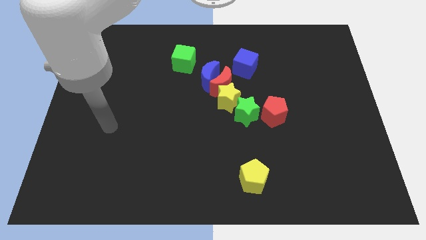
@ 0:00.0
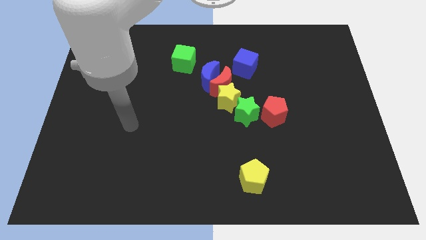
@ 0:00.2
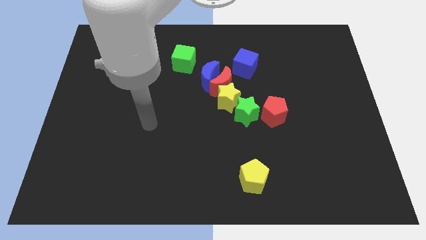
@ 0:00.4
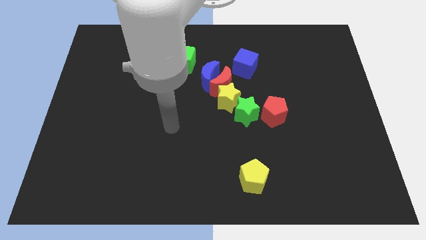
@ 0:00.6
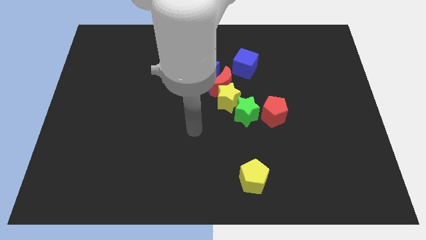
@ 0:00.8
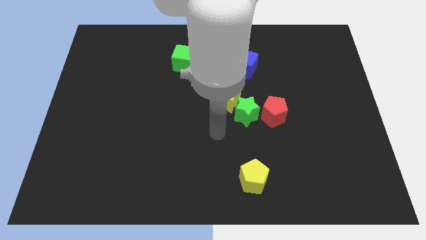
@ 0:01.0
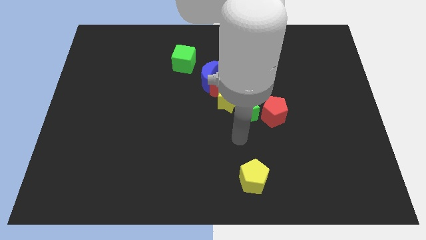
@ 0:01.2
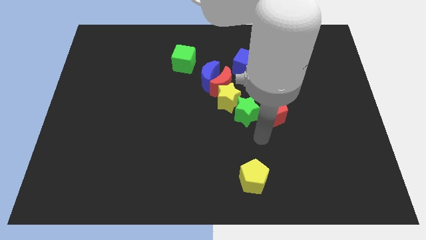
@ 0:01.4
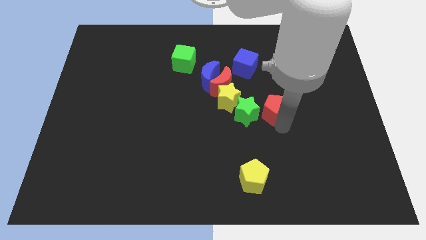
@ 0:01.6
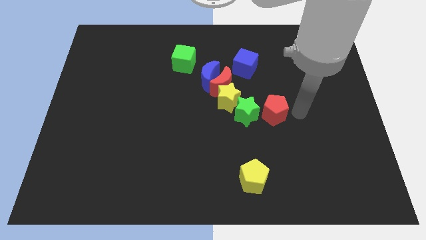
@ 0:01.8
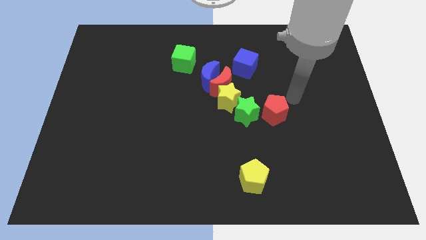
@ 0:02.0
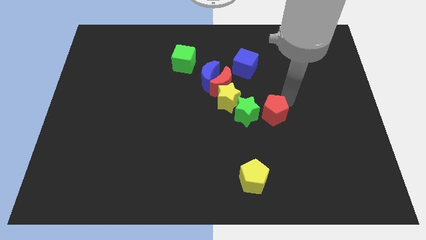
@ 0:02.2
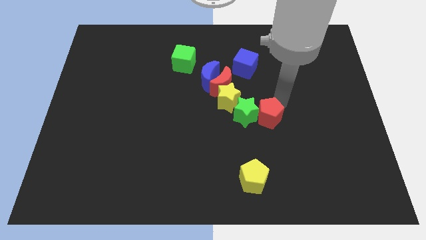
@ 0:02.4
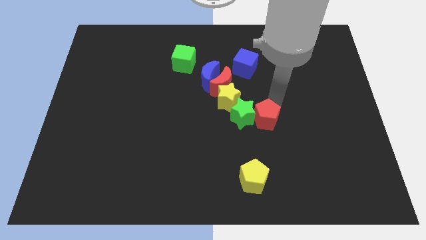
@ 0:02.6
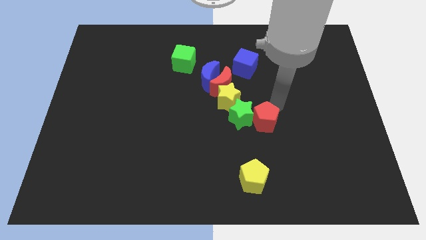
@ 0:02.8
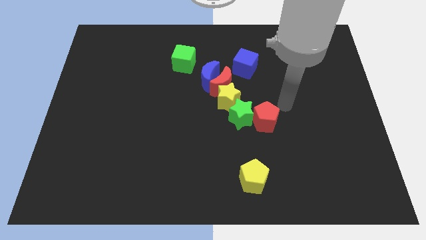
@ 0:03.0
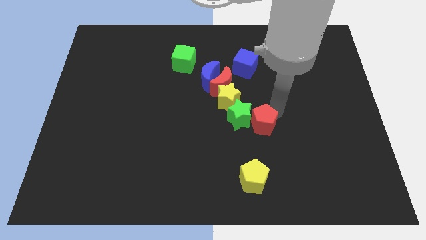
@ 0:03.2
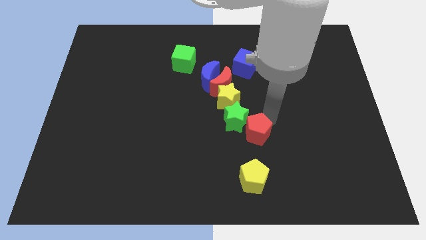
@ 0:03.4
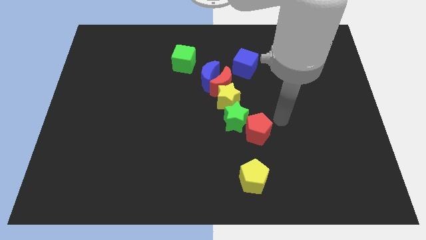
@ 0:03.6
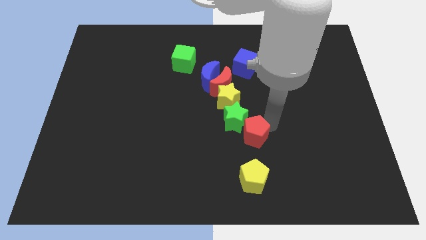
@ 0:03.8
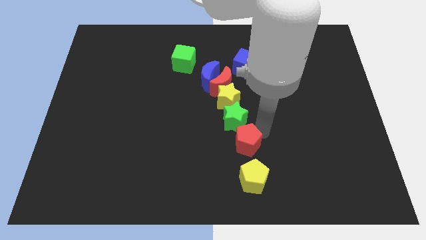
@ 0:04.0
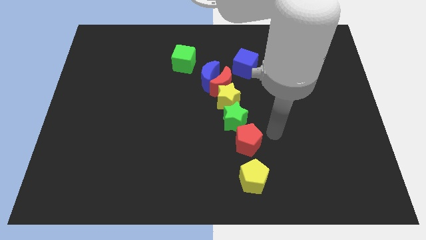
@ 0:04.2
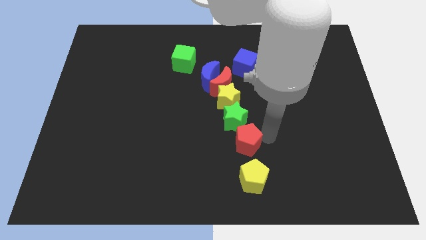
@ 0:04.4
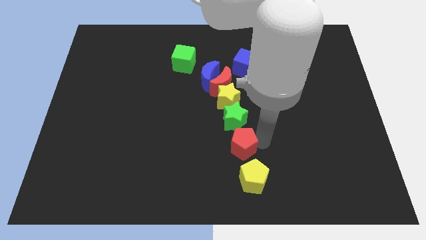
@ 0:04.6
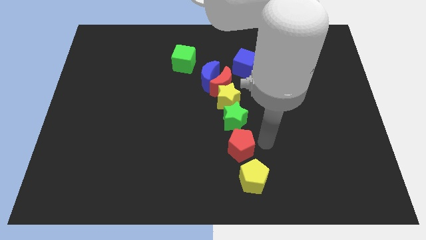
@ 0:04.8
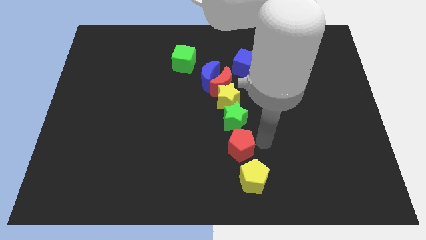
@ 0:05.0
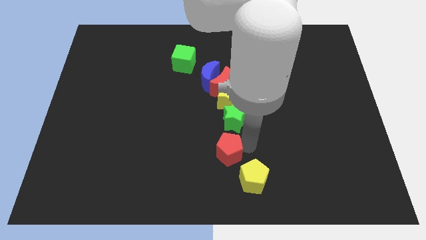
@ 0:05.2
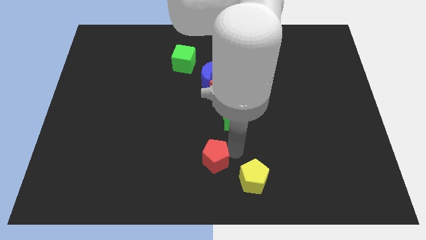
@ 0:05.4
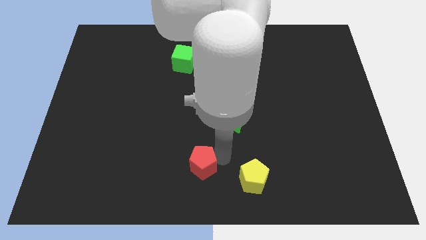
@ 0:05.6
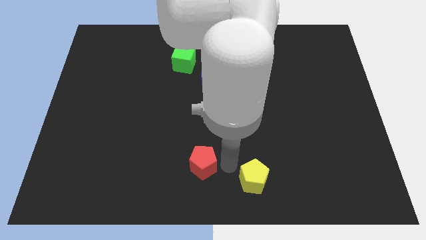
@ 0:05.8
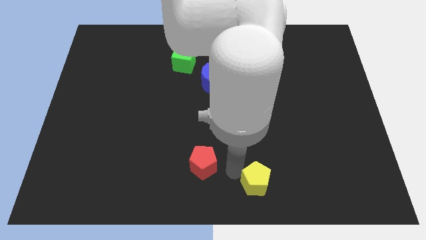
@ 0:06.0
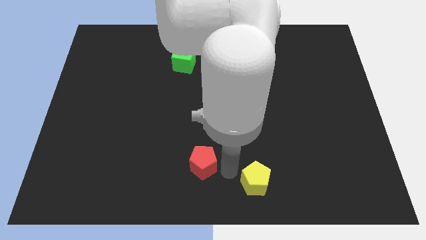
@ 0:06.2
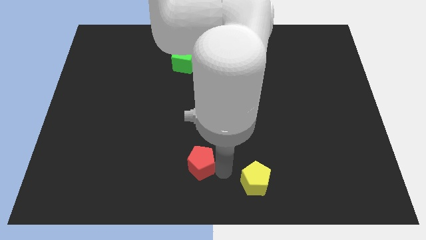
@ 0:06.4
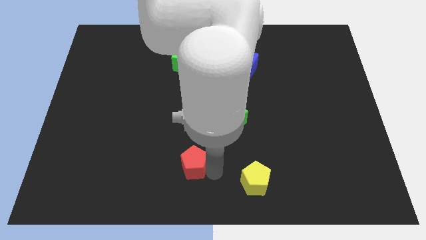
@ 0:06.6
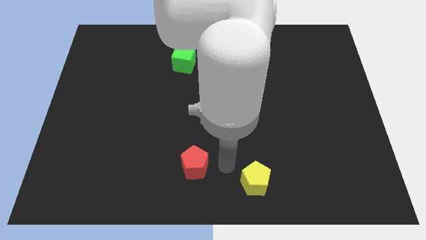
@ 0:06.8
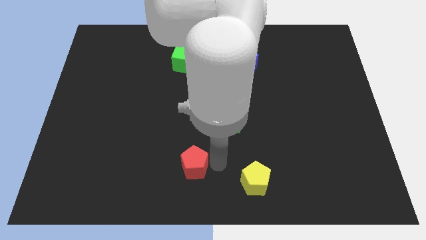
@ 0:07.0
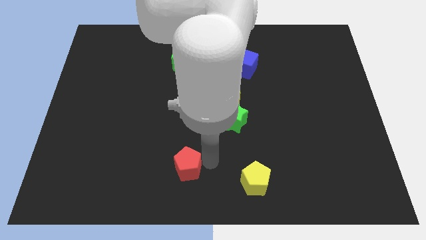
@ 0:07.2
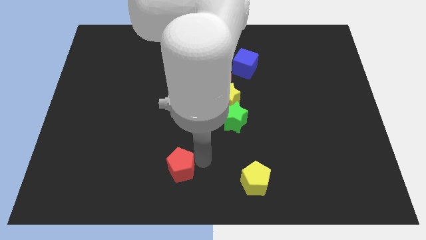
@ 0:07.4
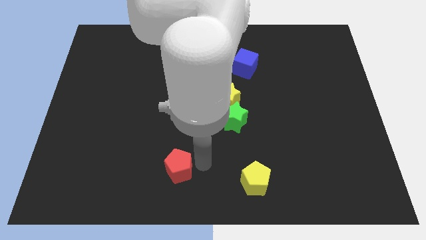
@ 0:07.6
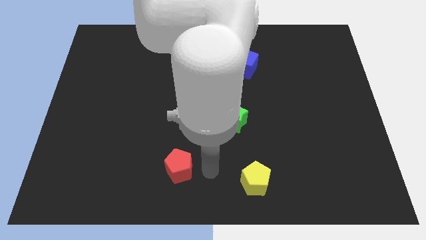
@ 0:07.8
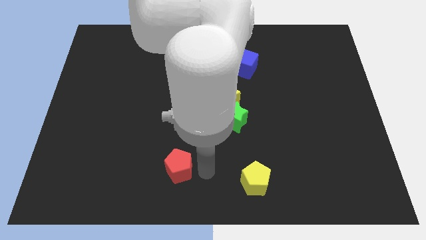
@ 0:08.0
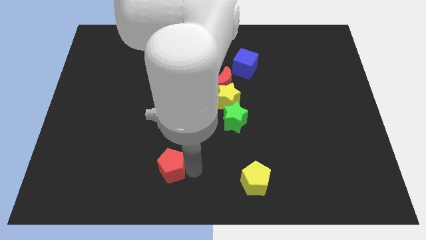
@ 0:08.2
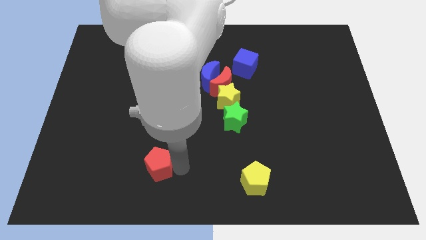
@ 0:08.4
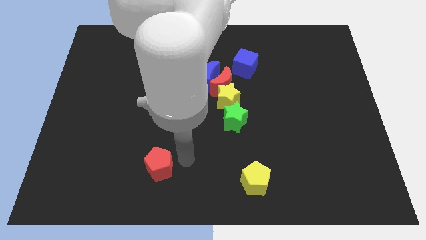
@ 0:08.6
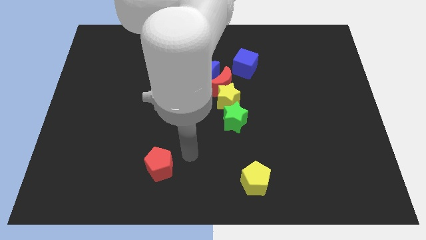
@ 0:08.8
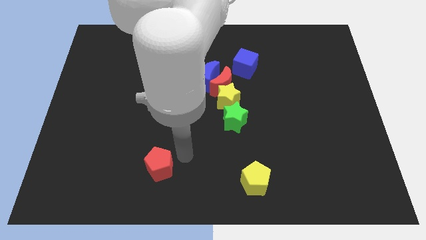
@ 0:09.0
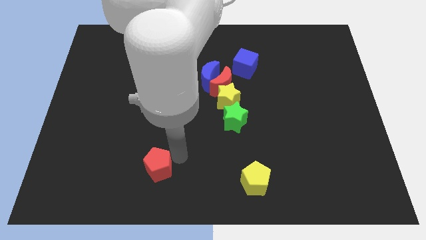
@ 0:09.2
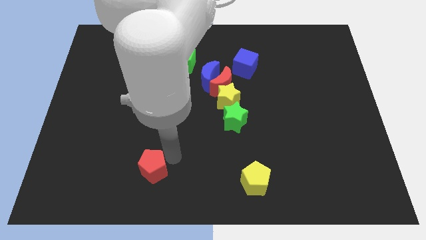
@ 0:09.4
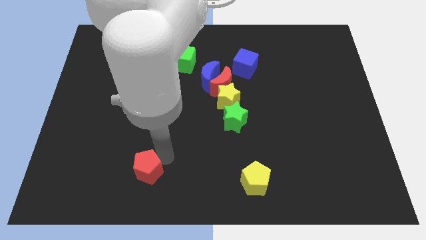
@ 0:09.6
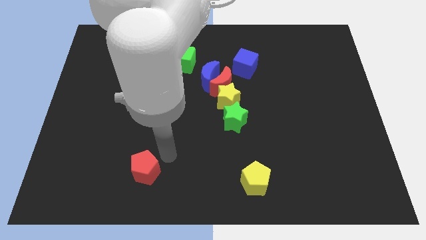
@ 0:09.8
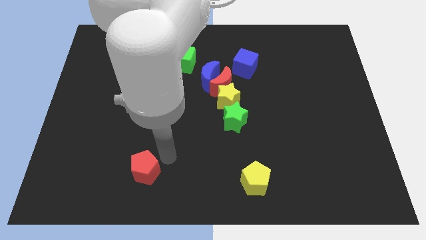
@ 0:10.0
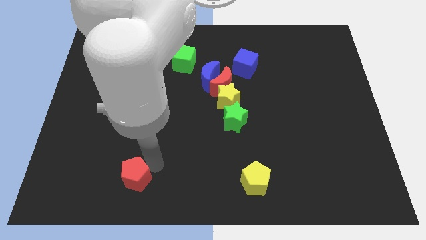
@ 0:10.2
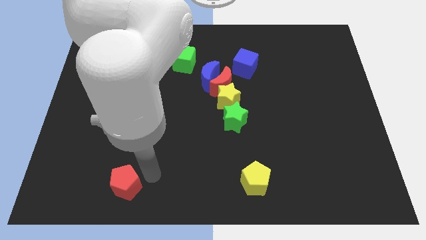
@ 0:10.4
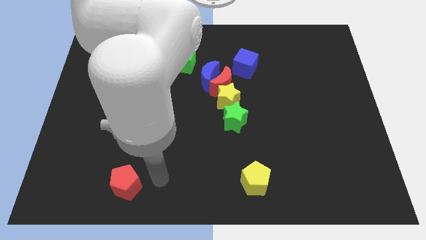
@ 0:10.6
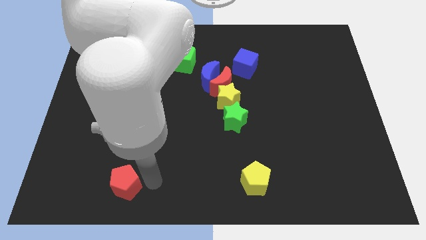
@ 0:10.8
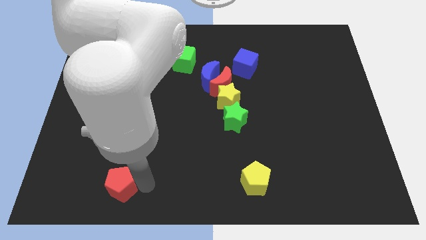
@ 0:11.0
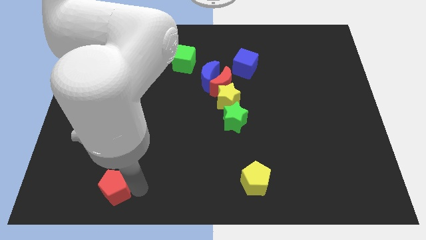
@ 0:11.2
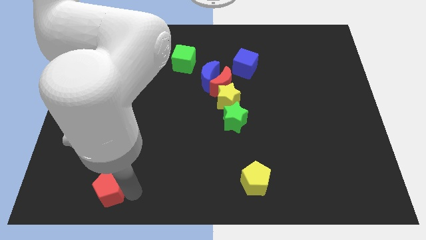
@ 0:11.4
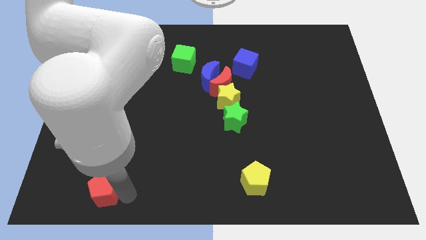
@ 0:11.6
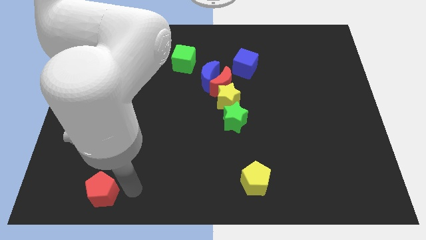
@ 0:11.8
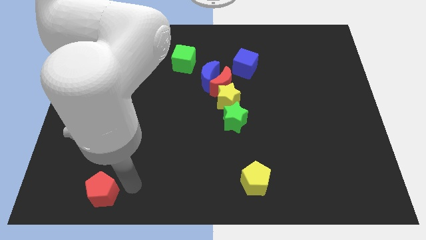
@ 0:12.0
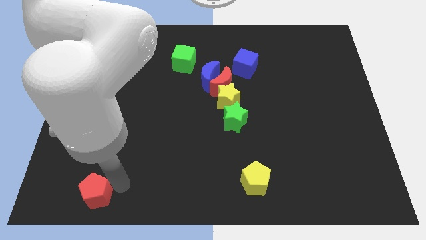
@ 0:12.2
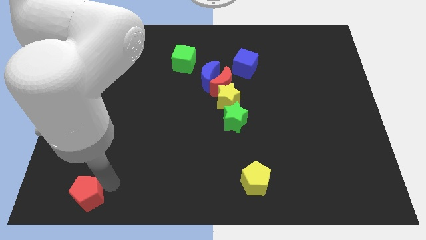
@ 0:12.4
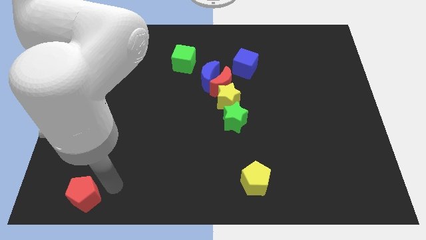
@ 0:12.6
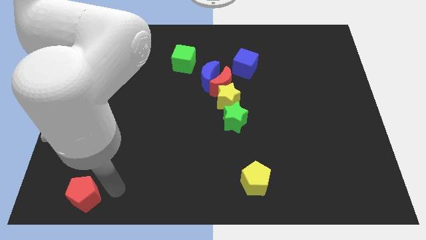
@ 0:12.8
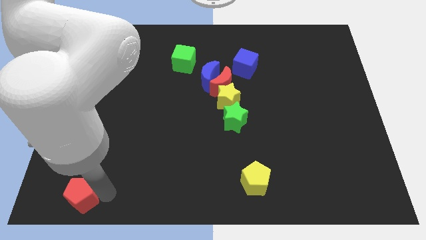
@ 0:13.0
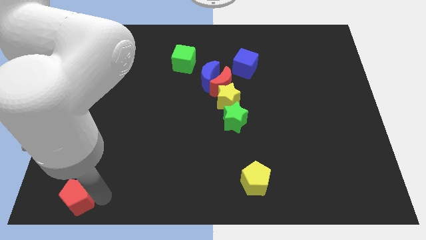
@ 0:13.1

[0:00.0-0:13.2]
put the red pentagon to the bottom left corner
